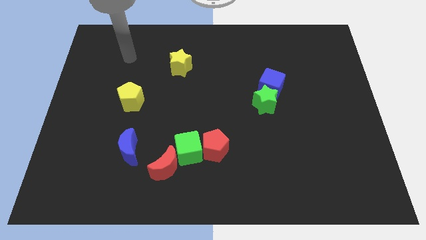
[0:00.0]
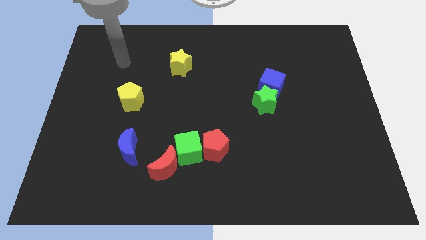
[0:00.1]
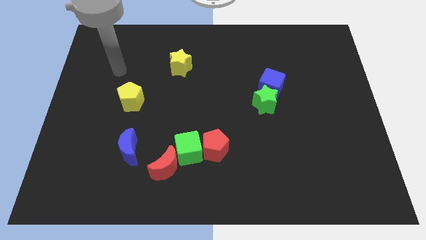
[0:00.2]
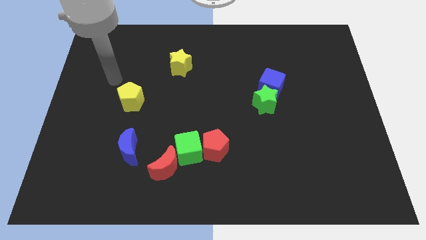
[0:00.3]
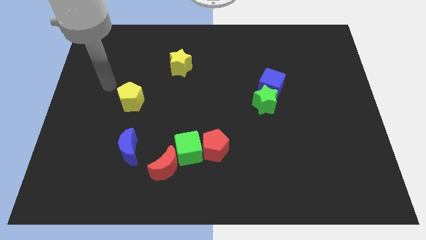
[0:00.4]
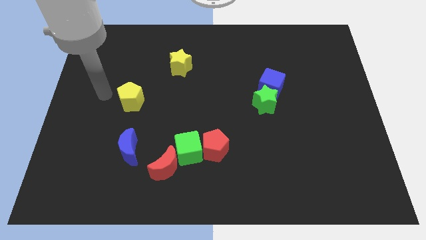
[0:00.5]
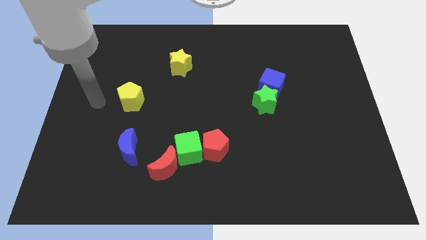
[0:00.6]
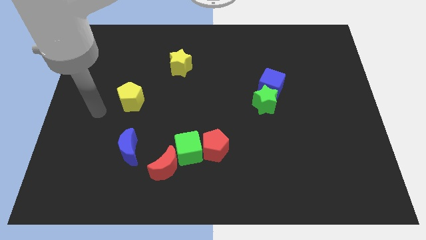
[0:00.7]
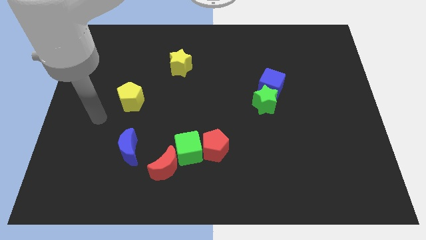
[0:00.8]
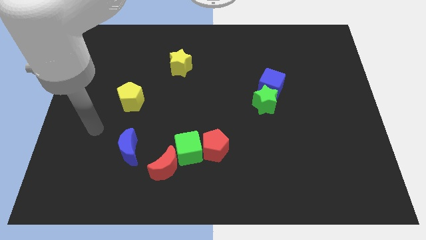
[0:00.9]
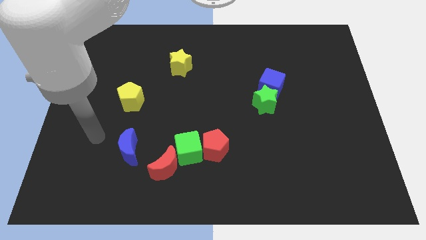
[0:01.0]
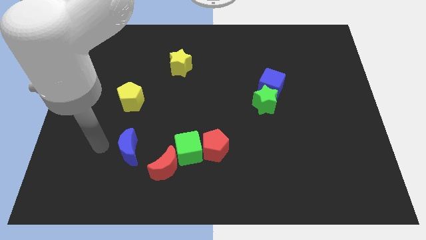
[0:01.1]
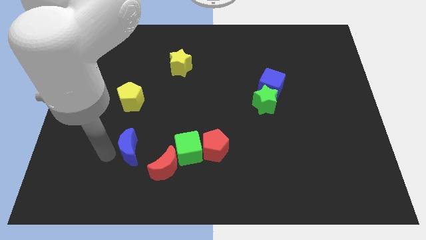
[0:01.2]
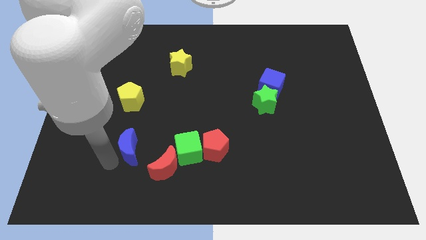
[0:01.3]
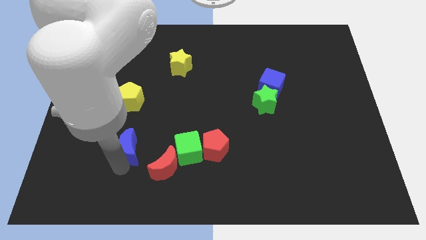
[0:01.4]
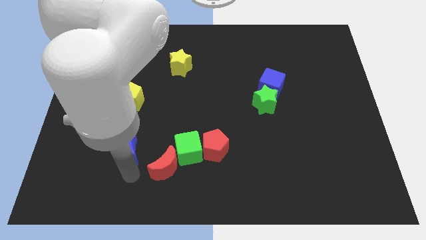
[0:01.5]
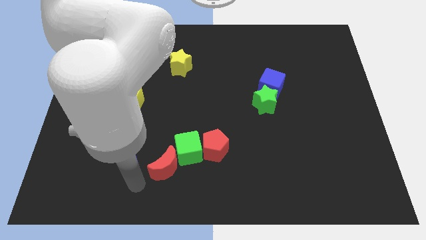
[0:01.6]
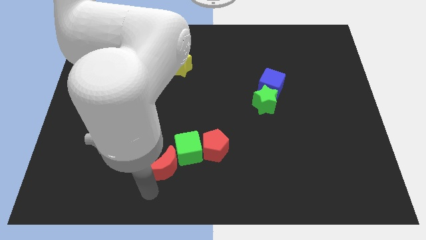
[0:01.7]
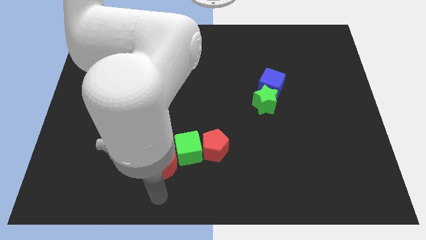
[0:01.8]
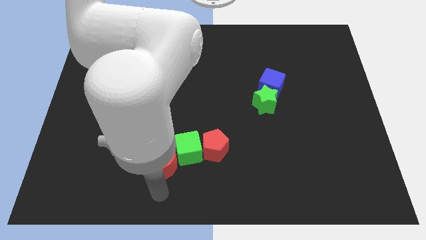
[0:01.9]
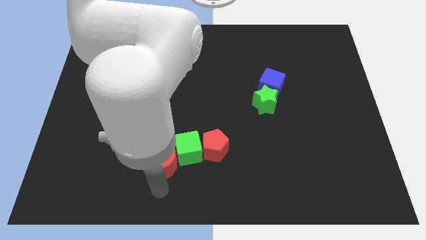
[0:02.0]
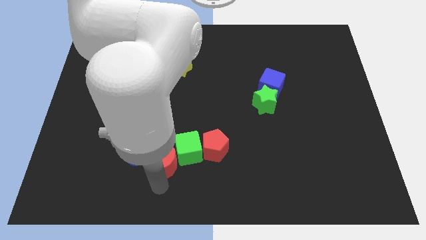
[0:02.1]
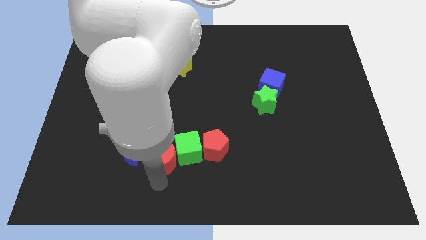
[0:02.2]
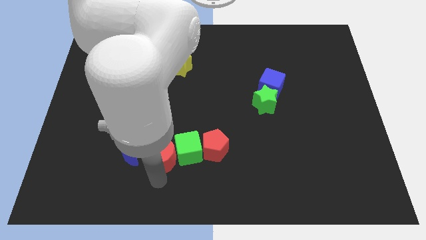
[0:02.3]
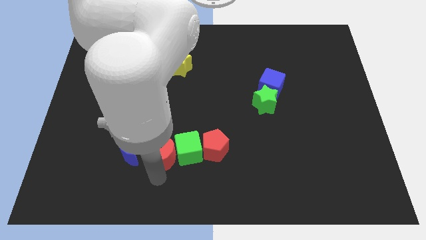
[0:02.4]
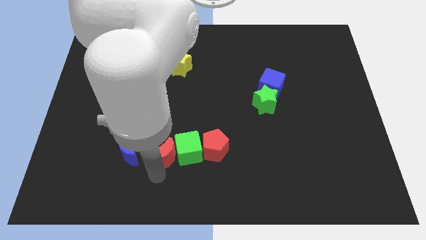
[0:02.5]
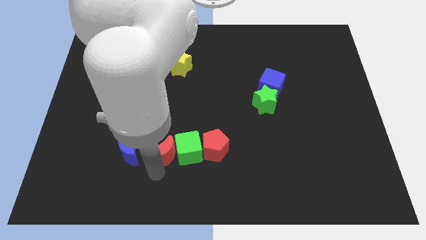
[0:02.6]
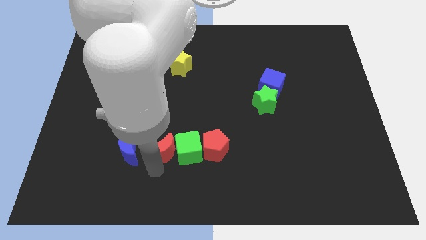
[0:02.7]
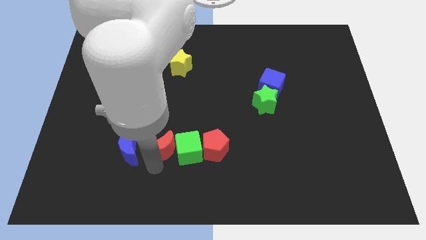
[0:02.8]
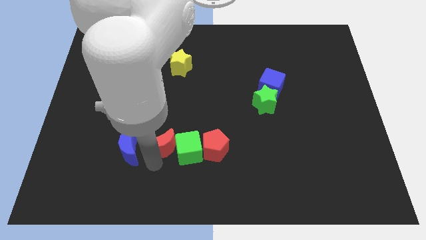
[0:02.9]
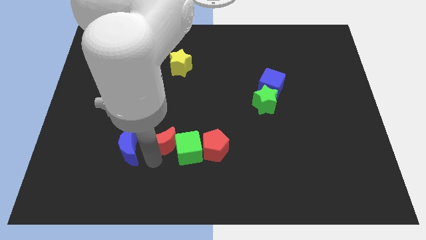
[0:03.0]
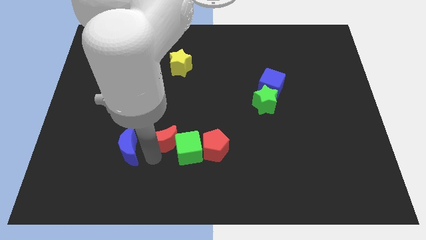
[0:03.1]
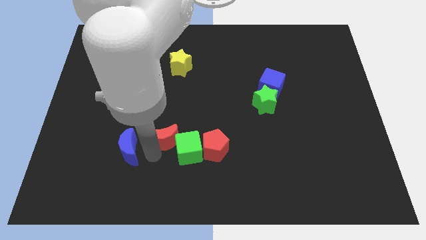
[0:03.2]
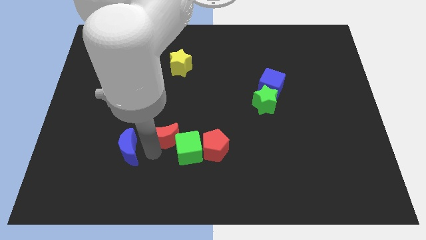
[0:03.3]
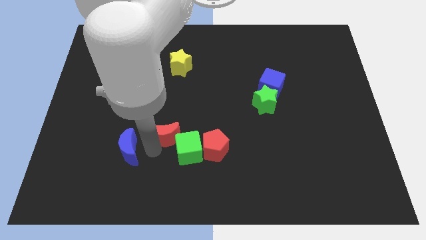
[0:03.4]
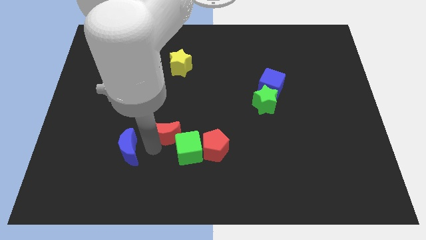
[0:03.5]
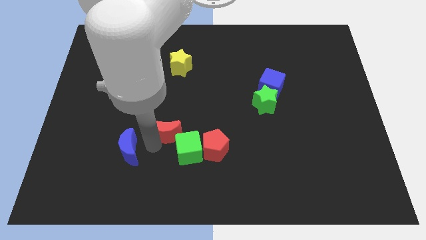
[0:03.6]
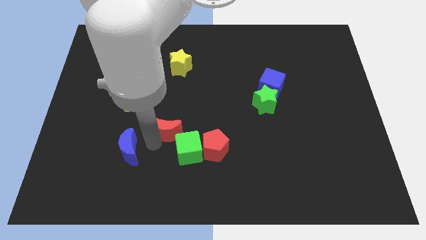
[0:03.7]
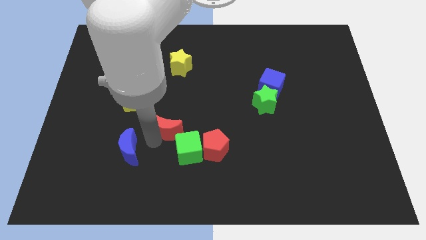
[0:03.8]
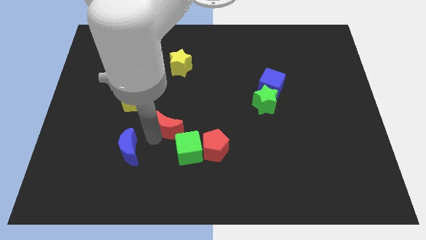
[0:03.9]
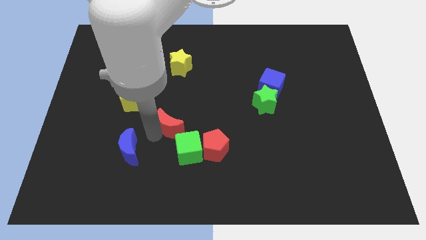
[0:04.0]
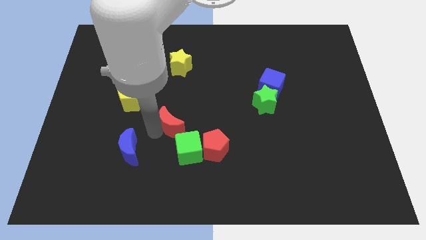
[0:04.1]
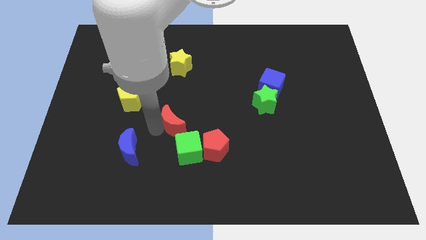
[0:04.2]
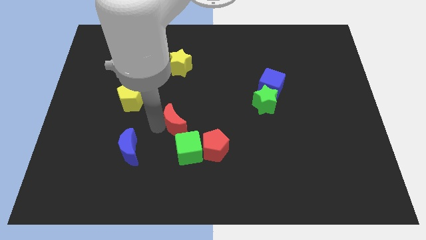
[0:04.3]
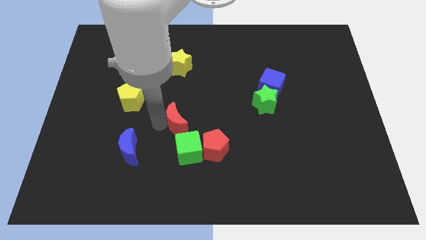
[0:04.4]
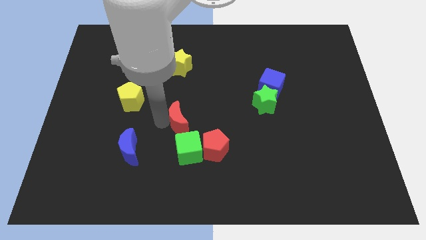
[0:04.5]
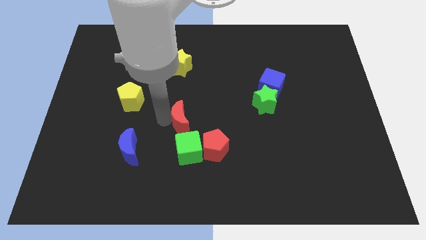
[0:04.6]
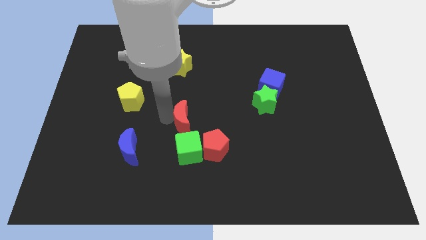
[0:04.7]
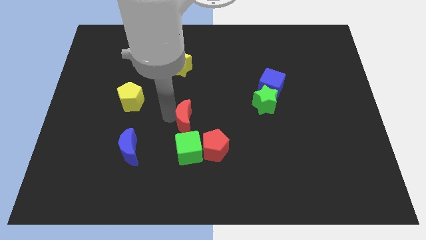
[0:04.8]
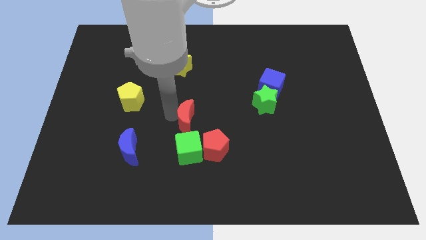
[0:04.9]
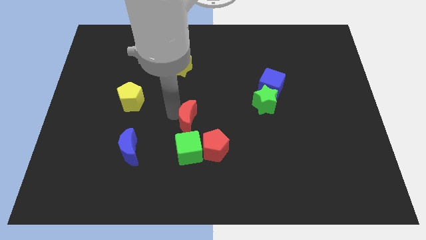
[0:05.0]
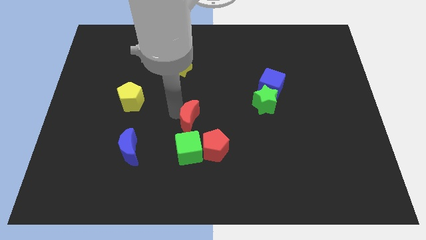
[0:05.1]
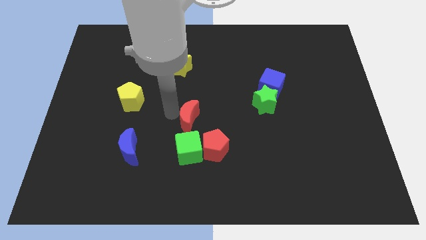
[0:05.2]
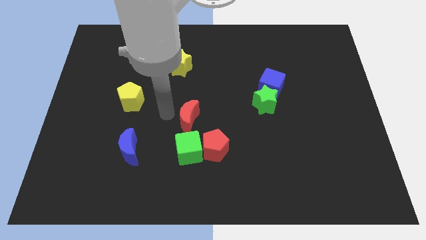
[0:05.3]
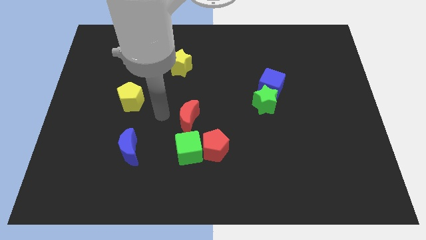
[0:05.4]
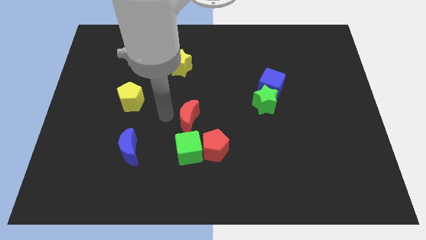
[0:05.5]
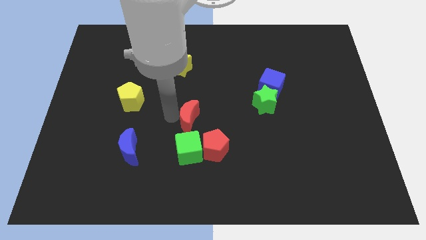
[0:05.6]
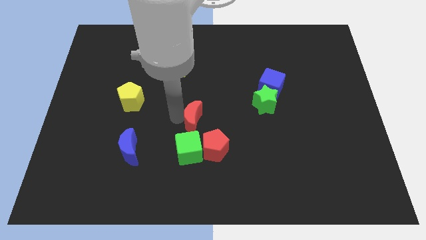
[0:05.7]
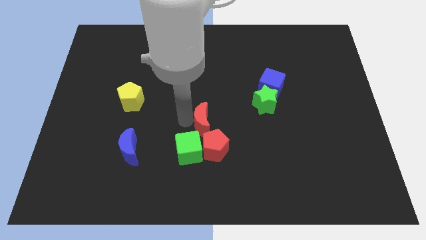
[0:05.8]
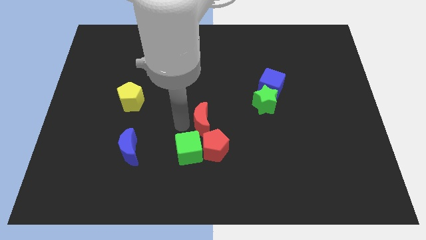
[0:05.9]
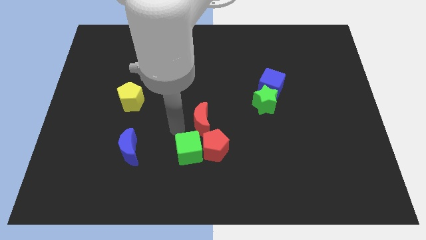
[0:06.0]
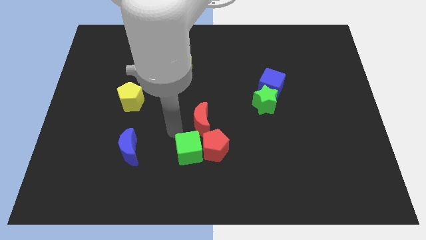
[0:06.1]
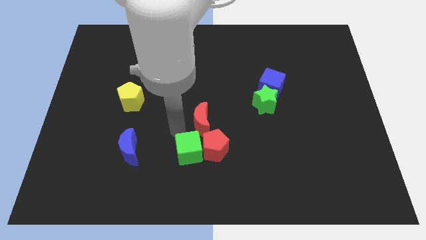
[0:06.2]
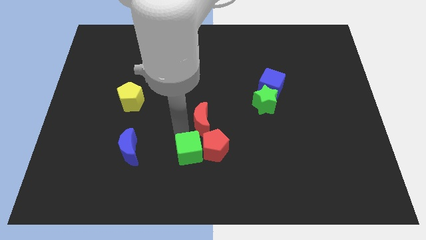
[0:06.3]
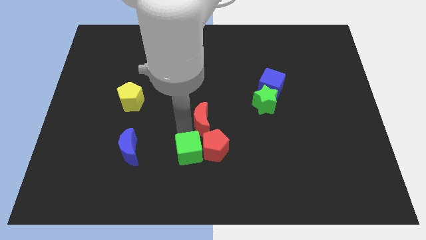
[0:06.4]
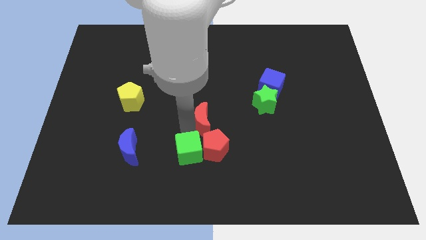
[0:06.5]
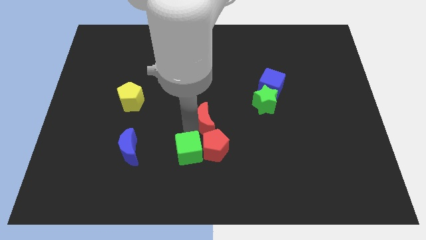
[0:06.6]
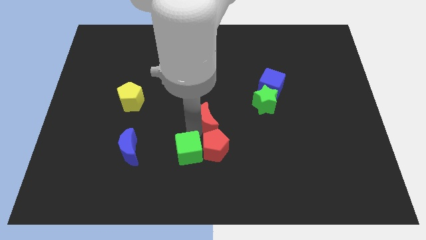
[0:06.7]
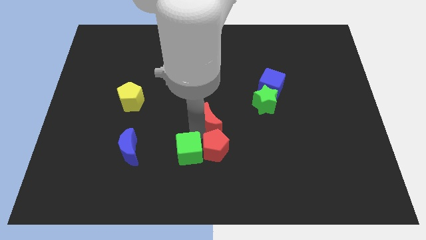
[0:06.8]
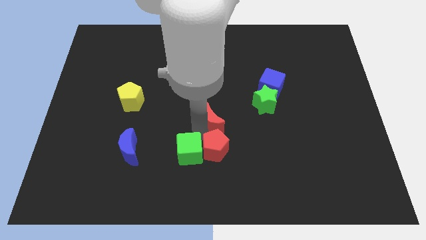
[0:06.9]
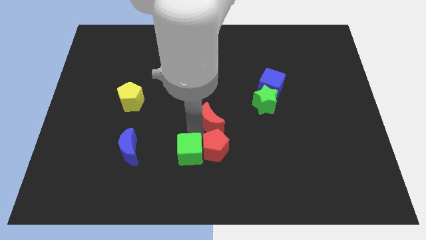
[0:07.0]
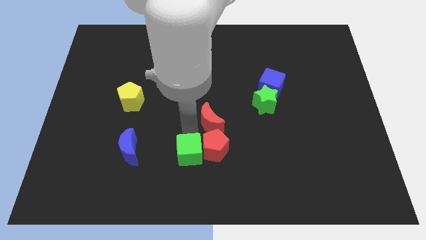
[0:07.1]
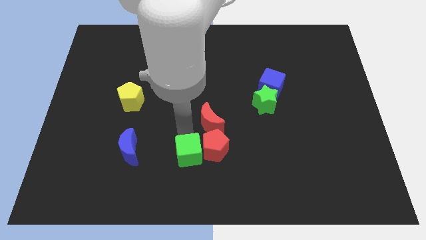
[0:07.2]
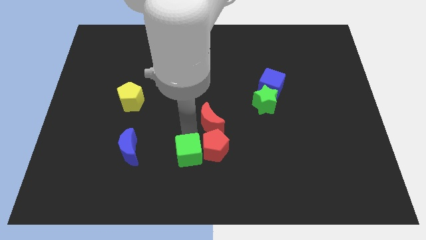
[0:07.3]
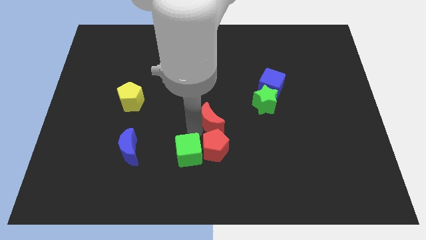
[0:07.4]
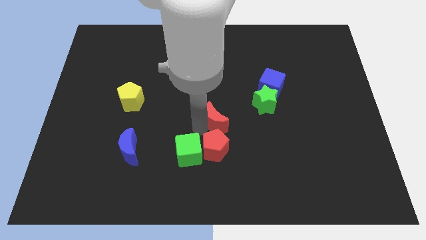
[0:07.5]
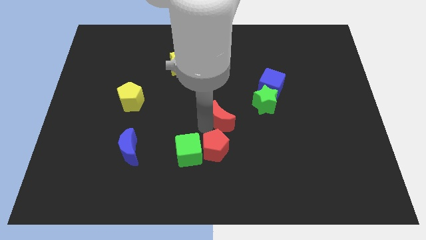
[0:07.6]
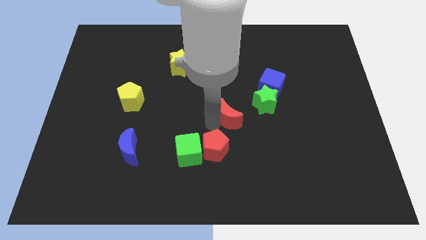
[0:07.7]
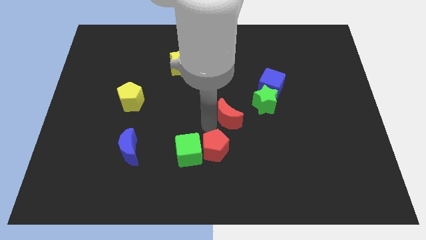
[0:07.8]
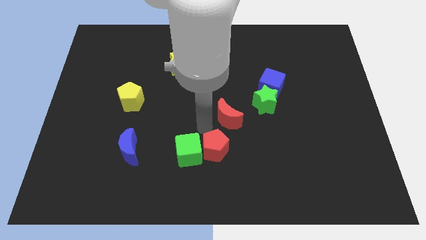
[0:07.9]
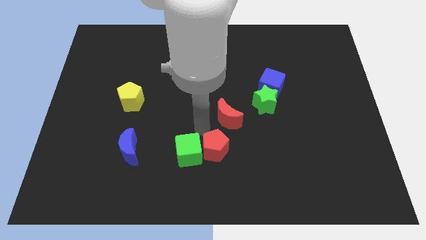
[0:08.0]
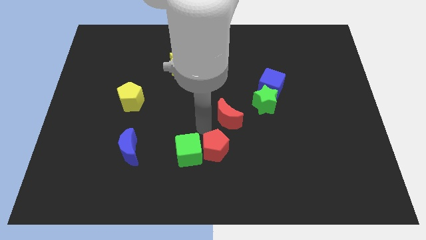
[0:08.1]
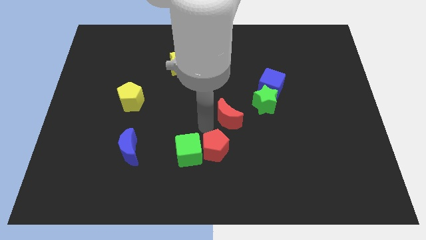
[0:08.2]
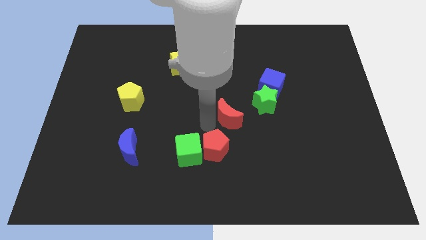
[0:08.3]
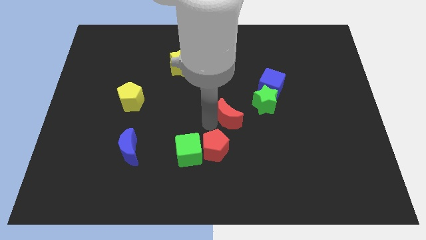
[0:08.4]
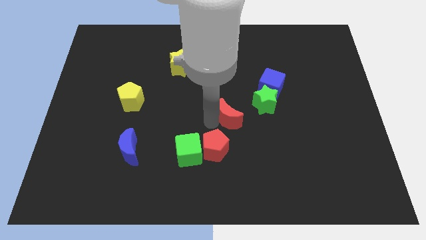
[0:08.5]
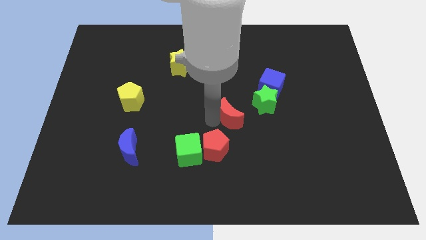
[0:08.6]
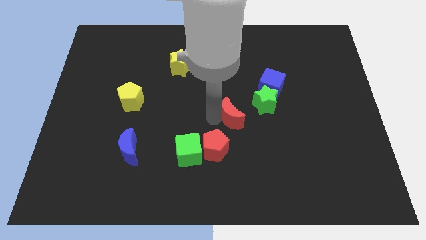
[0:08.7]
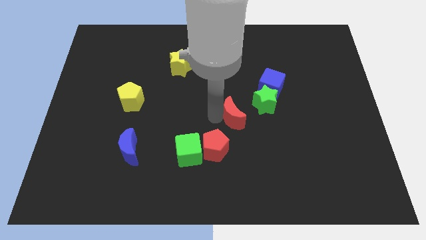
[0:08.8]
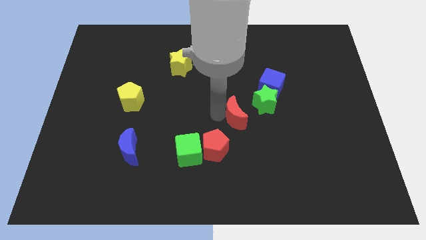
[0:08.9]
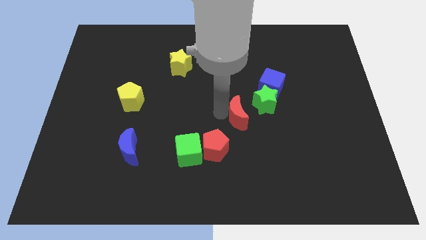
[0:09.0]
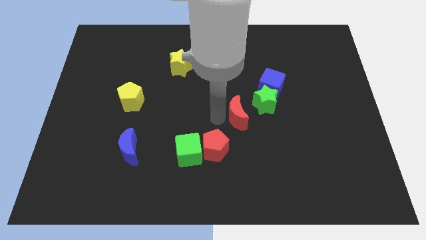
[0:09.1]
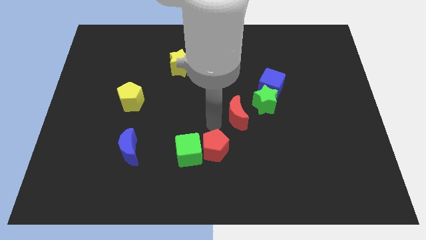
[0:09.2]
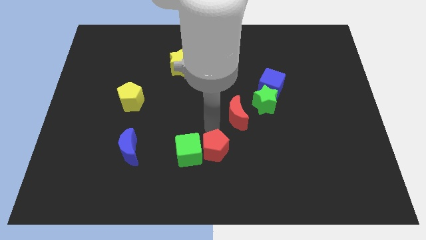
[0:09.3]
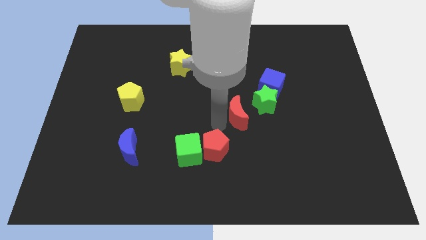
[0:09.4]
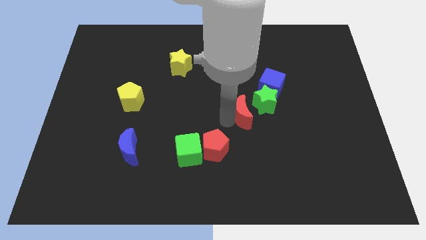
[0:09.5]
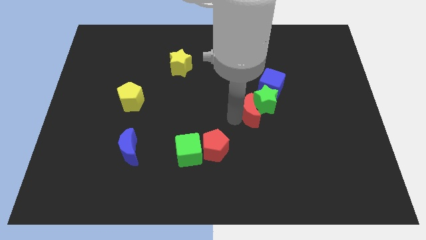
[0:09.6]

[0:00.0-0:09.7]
put the red moon towards the green star
